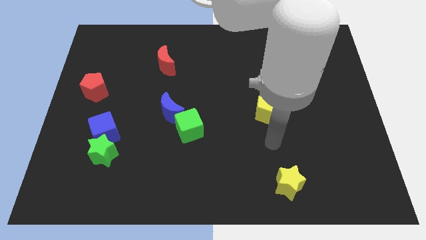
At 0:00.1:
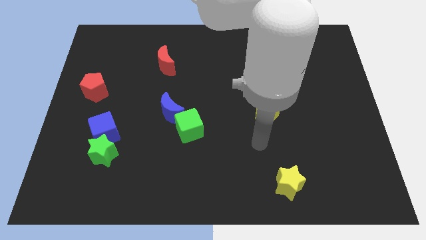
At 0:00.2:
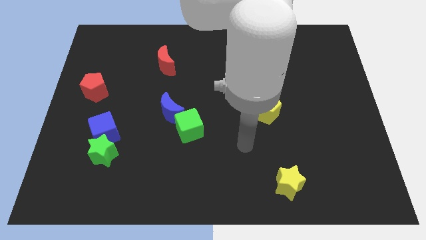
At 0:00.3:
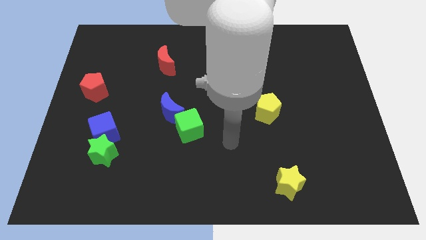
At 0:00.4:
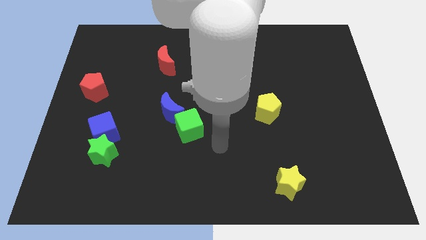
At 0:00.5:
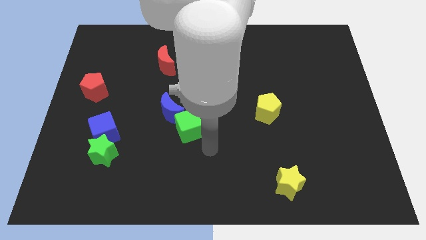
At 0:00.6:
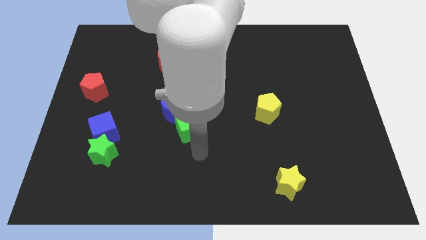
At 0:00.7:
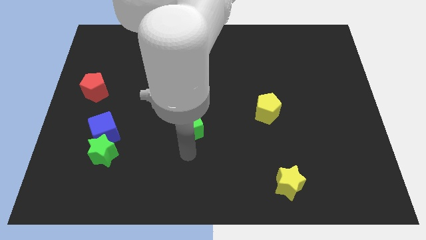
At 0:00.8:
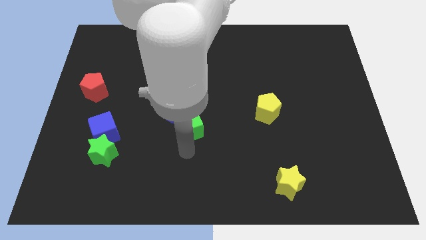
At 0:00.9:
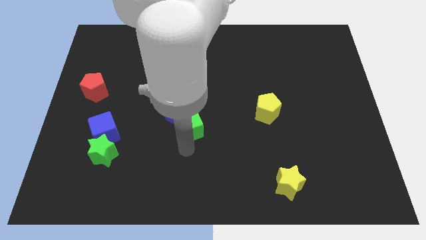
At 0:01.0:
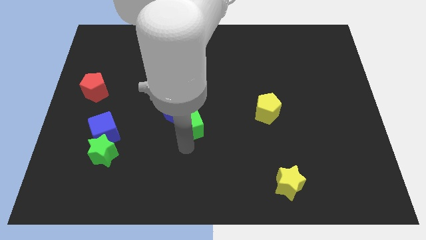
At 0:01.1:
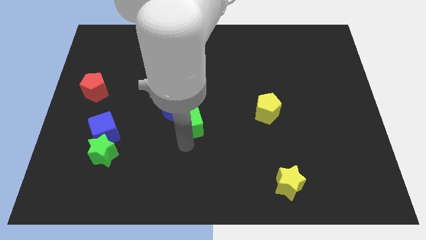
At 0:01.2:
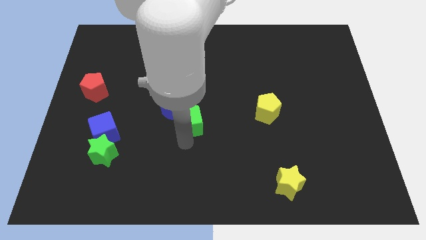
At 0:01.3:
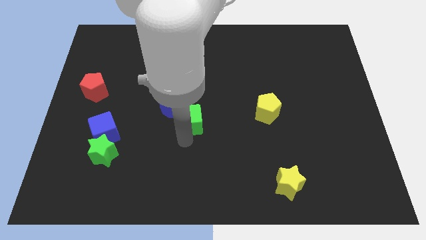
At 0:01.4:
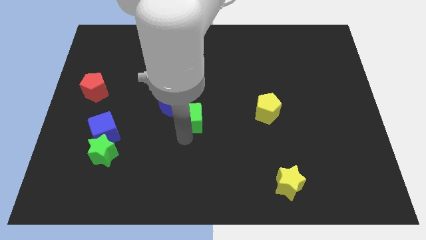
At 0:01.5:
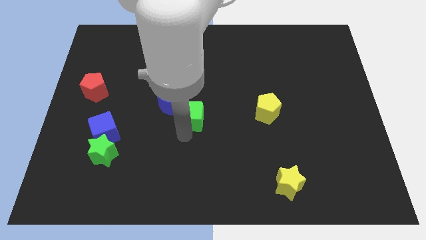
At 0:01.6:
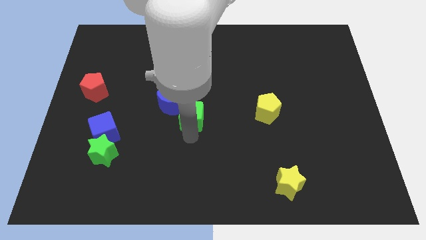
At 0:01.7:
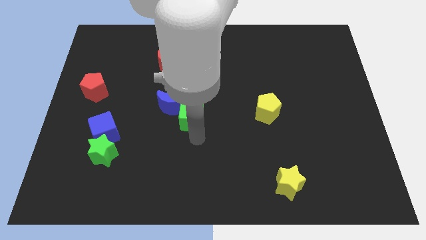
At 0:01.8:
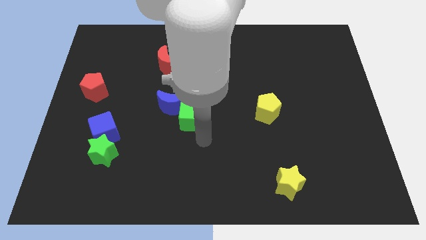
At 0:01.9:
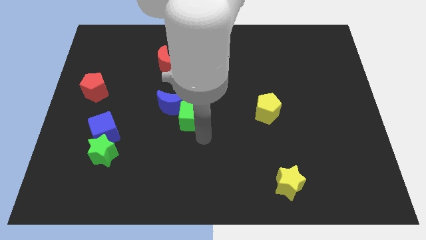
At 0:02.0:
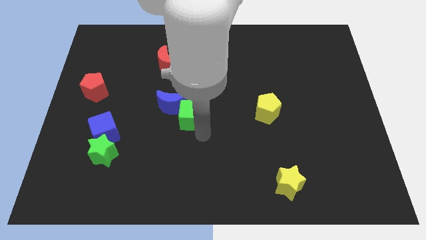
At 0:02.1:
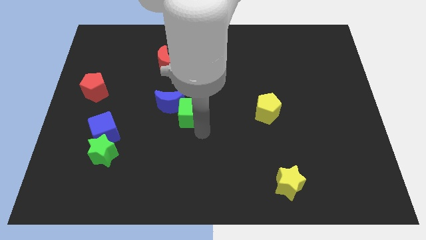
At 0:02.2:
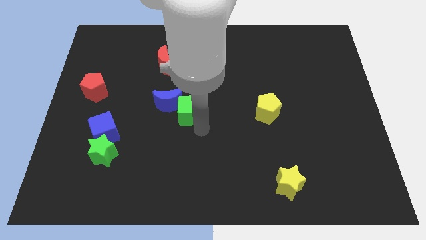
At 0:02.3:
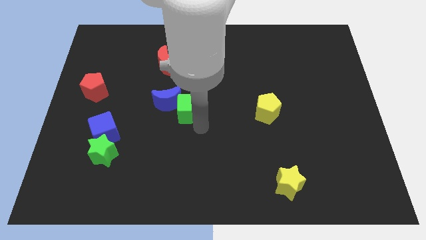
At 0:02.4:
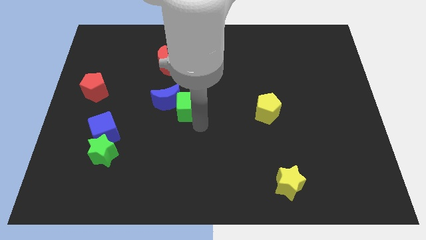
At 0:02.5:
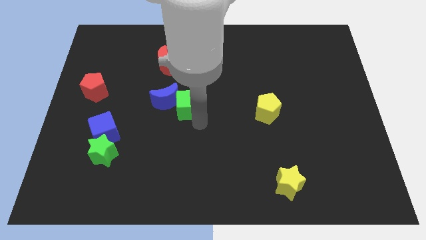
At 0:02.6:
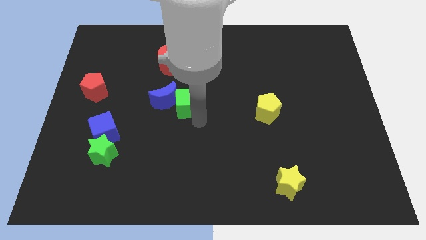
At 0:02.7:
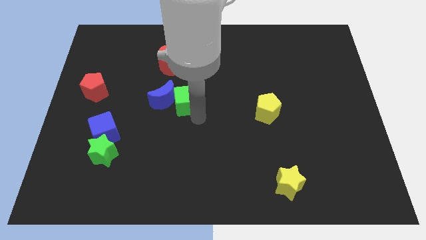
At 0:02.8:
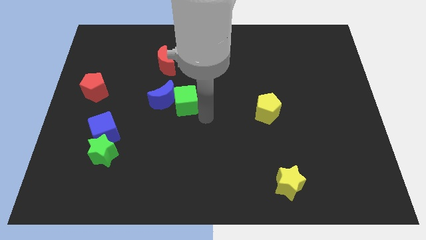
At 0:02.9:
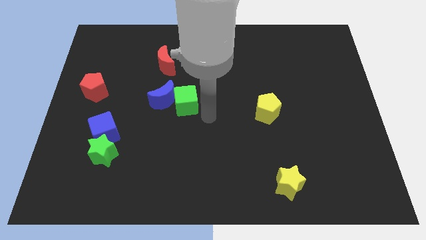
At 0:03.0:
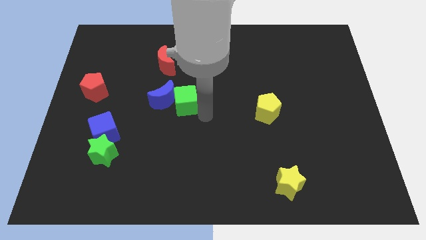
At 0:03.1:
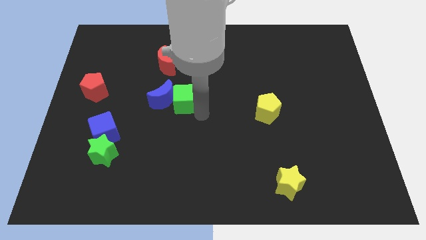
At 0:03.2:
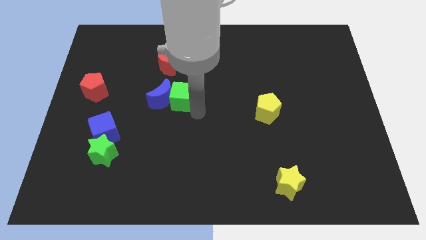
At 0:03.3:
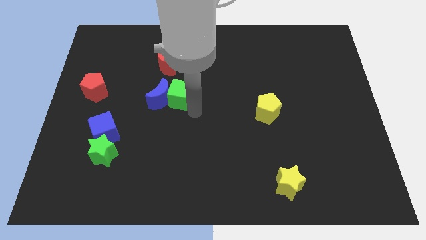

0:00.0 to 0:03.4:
move the green cube a little diagonally up and to the left

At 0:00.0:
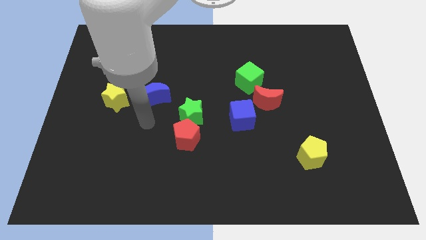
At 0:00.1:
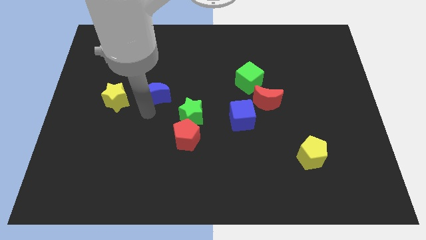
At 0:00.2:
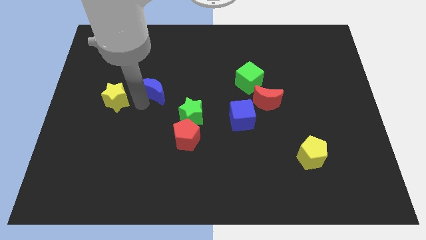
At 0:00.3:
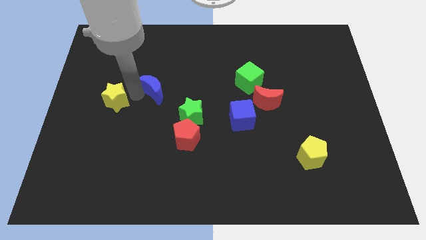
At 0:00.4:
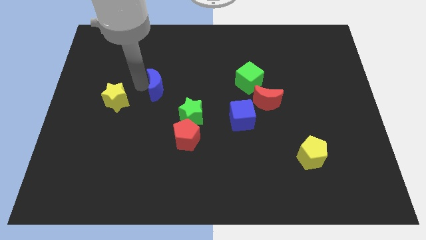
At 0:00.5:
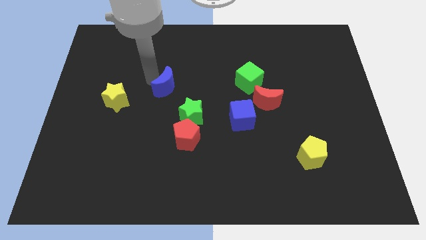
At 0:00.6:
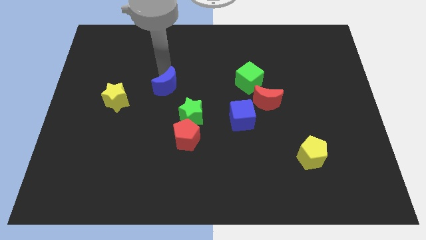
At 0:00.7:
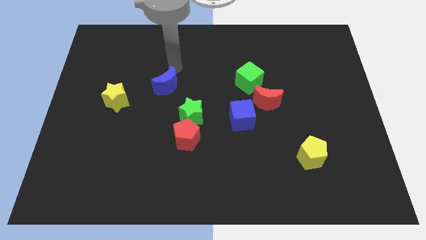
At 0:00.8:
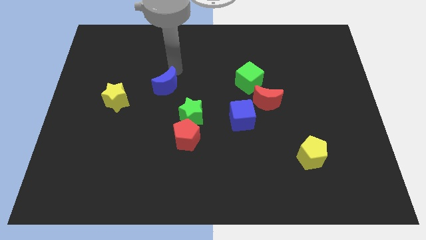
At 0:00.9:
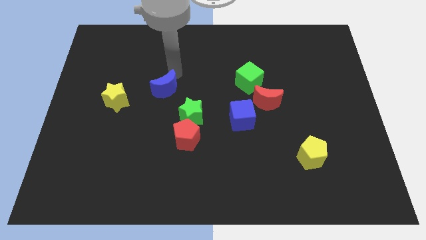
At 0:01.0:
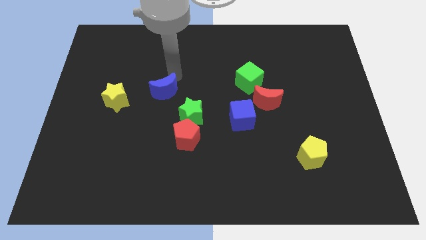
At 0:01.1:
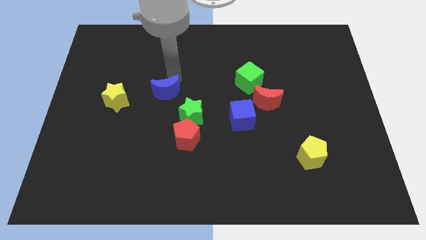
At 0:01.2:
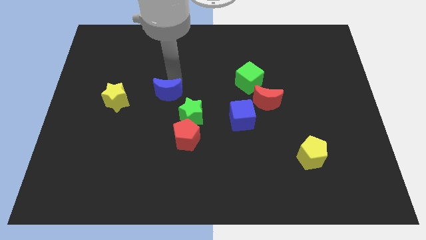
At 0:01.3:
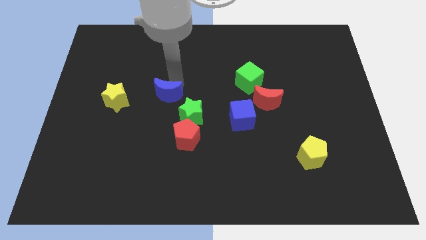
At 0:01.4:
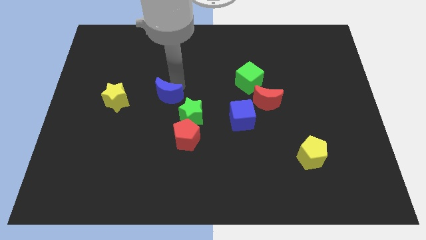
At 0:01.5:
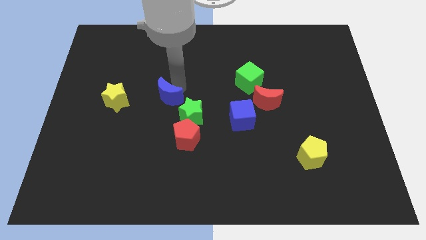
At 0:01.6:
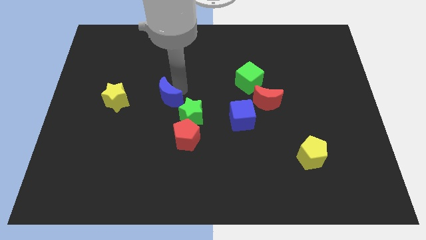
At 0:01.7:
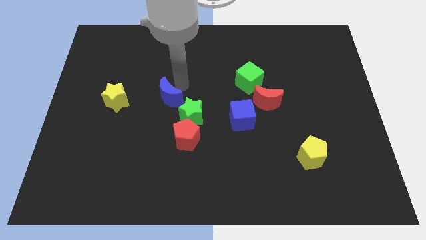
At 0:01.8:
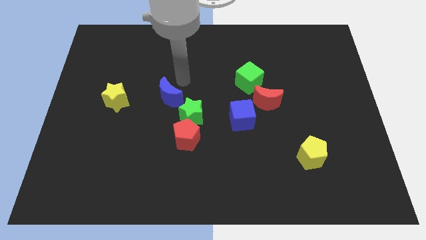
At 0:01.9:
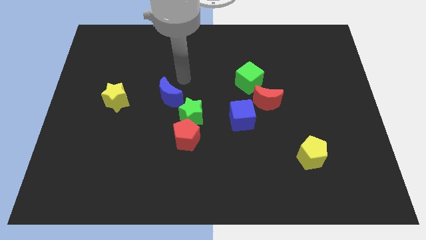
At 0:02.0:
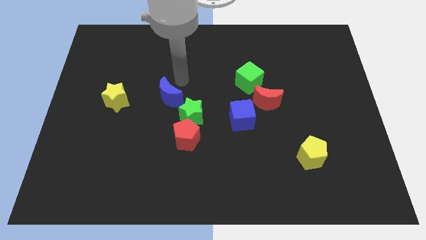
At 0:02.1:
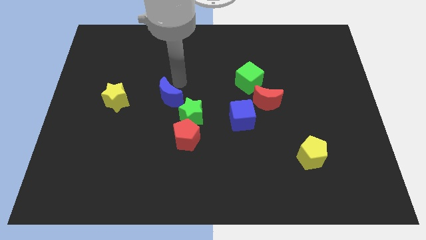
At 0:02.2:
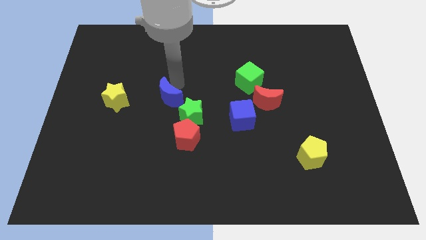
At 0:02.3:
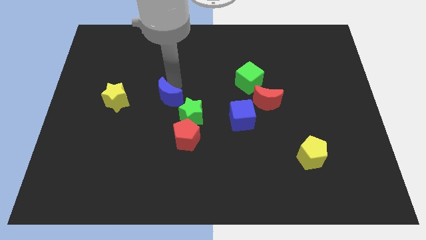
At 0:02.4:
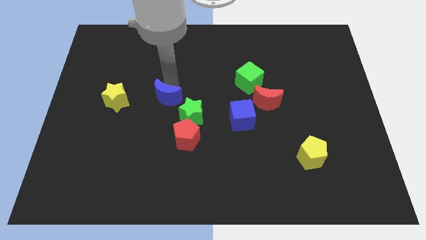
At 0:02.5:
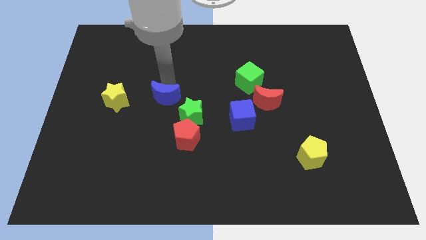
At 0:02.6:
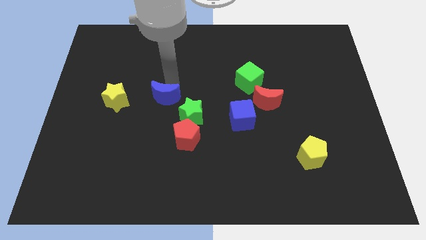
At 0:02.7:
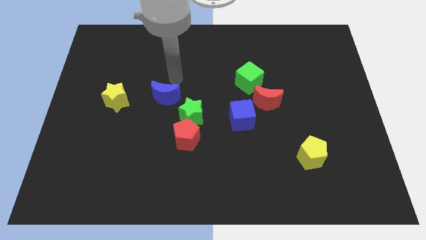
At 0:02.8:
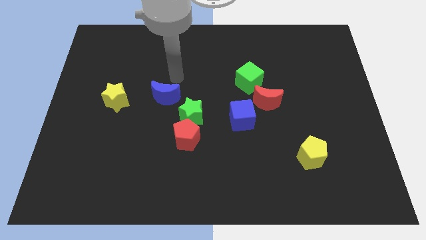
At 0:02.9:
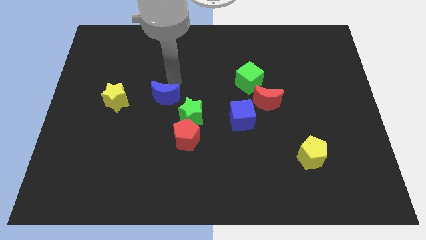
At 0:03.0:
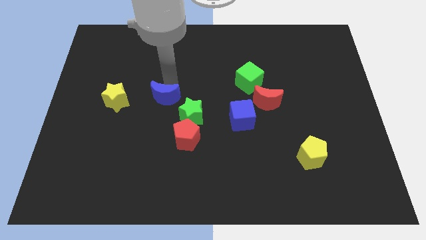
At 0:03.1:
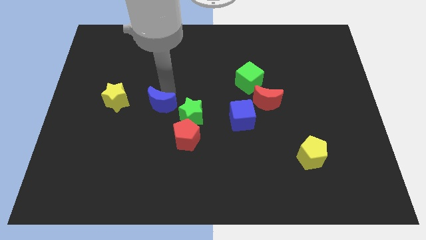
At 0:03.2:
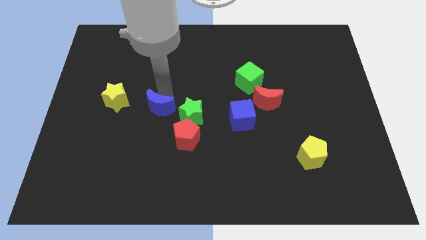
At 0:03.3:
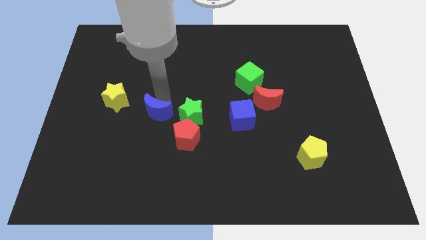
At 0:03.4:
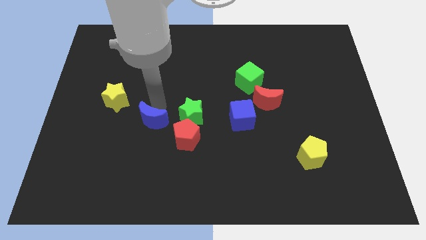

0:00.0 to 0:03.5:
slightly move the blue moon downwards

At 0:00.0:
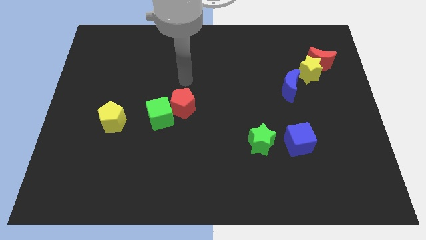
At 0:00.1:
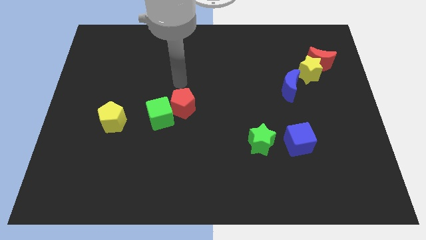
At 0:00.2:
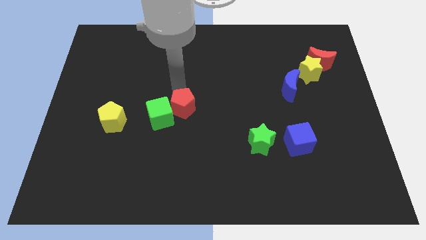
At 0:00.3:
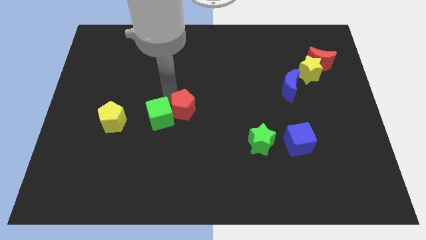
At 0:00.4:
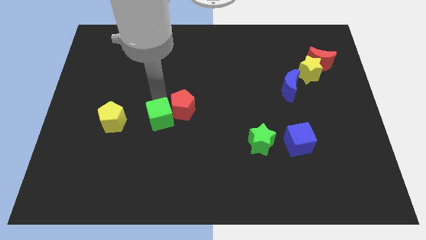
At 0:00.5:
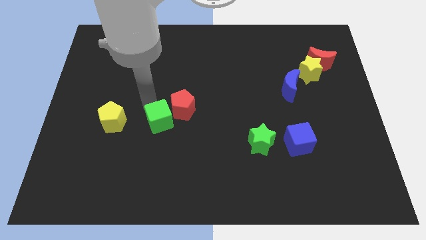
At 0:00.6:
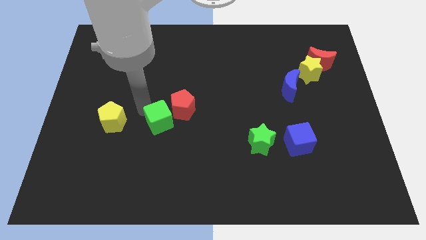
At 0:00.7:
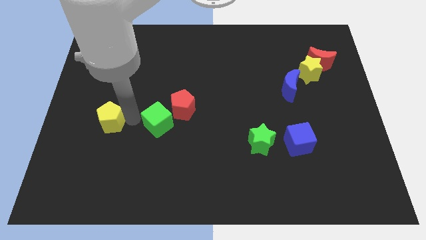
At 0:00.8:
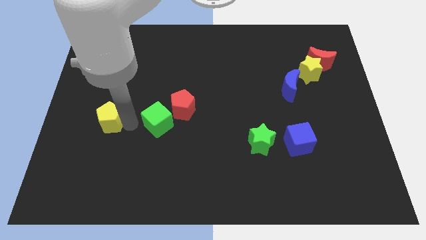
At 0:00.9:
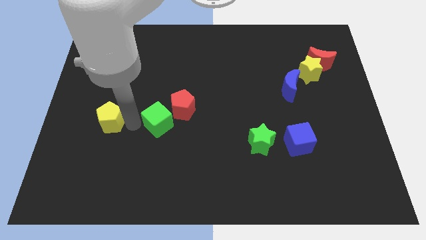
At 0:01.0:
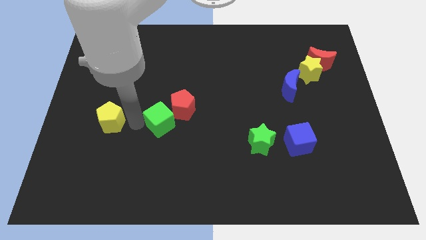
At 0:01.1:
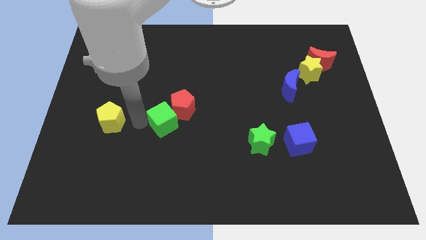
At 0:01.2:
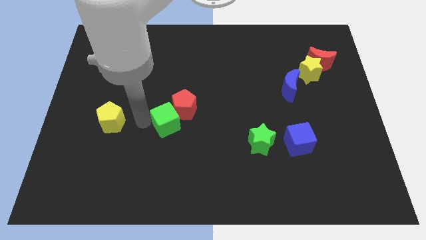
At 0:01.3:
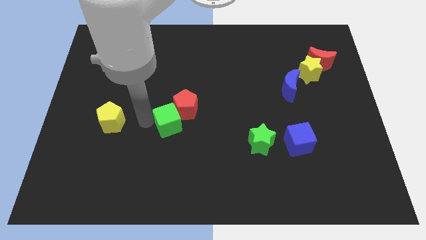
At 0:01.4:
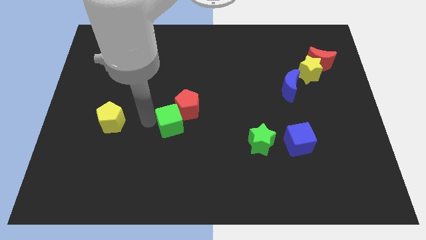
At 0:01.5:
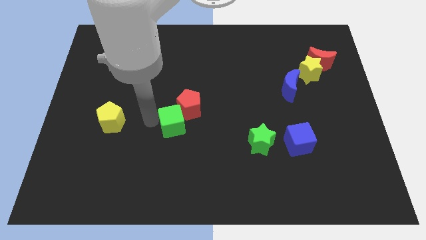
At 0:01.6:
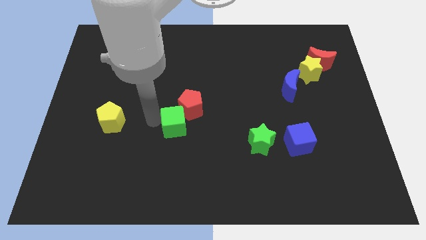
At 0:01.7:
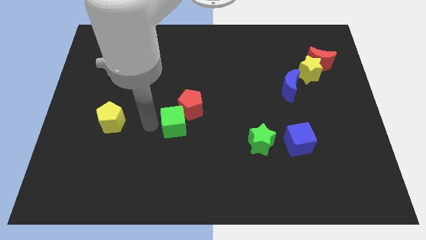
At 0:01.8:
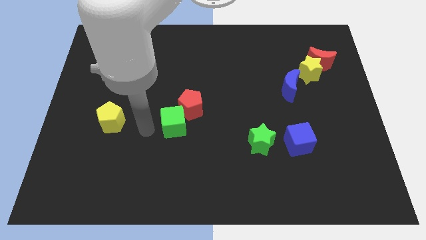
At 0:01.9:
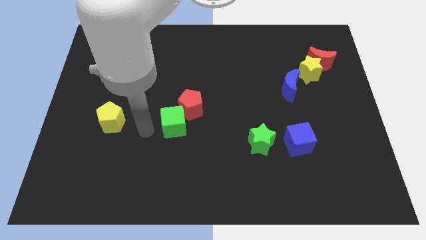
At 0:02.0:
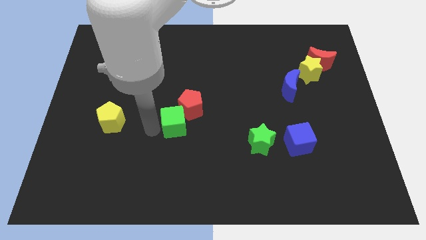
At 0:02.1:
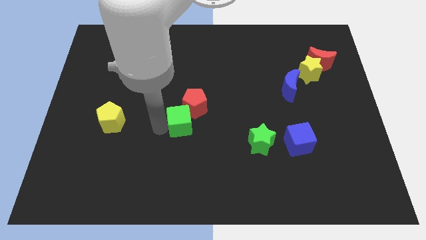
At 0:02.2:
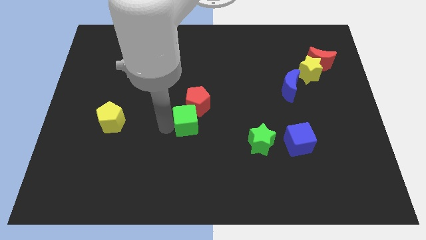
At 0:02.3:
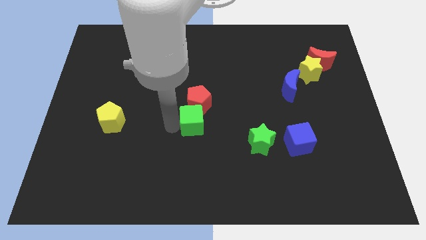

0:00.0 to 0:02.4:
move the green cube right somewhat
